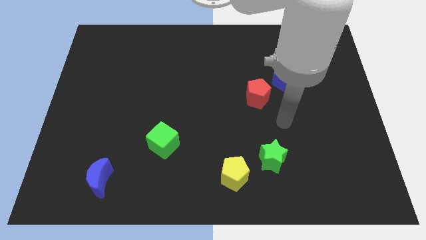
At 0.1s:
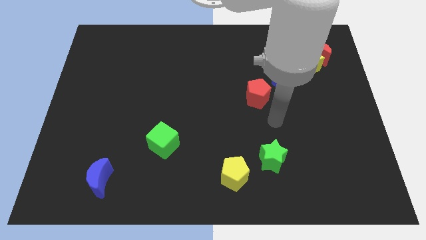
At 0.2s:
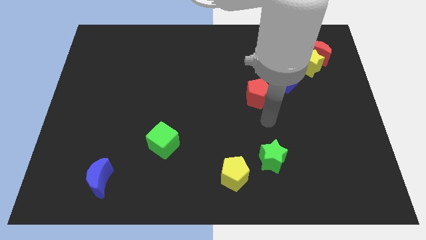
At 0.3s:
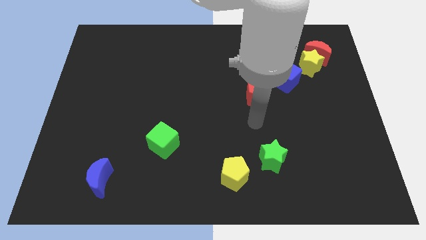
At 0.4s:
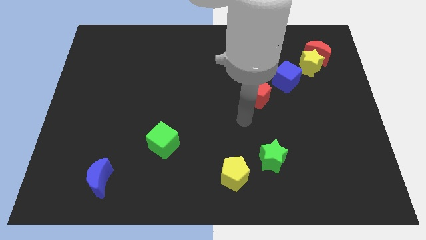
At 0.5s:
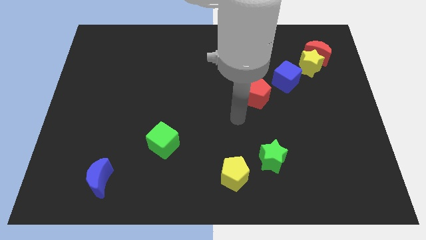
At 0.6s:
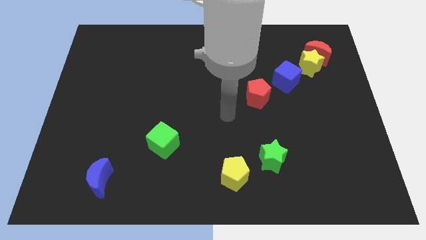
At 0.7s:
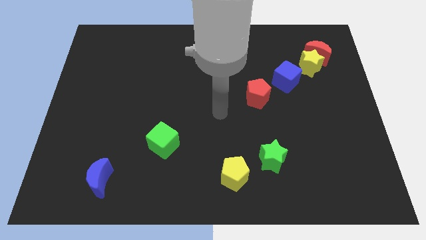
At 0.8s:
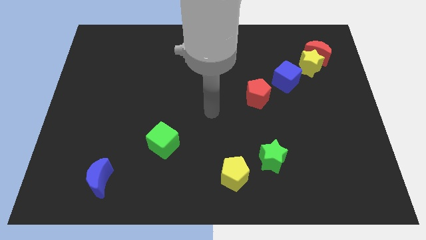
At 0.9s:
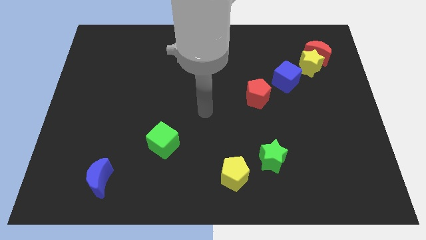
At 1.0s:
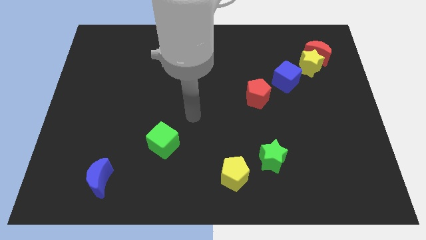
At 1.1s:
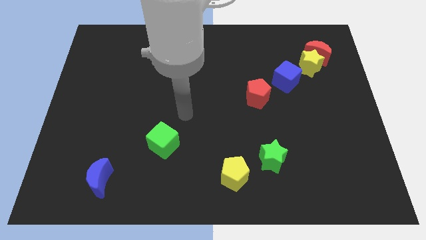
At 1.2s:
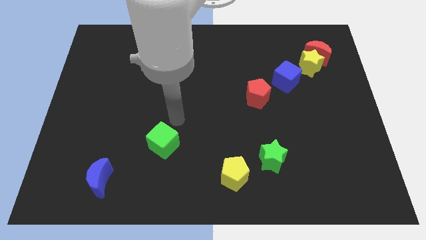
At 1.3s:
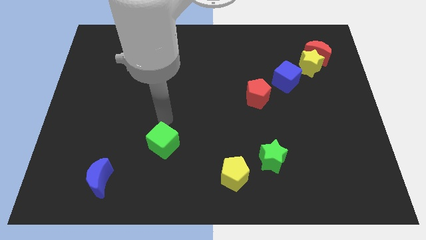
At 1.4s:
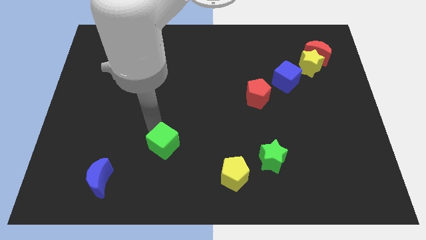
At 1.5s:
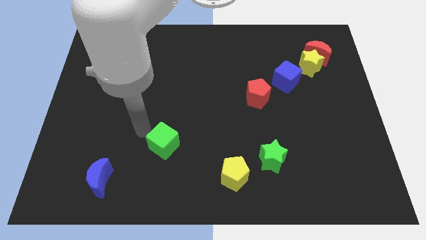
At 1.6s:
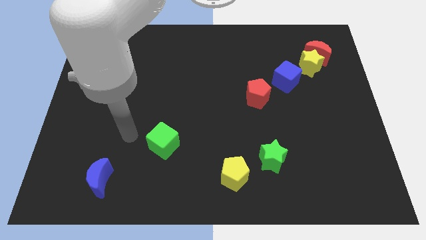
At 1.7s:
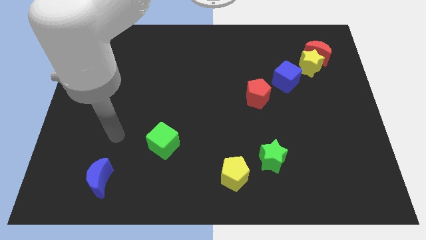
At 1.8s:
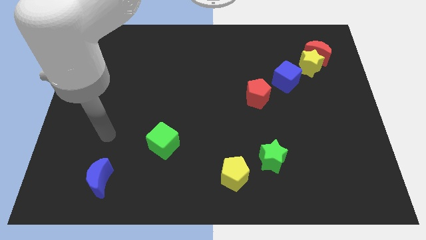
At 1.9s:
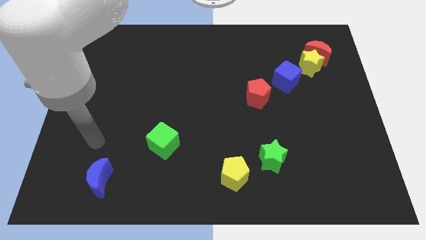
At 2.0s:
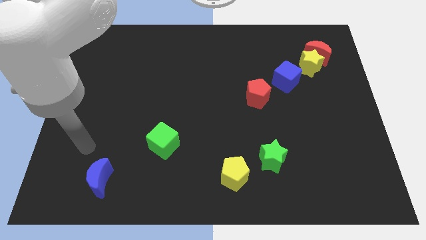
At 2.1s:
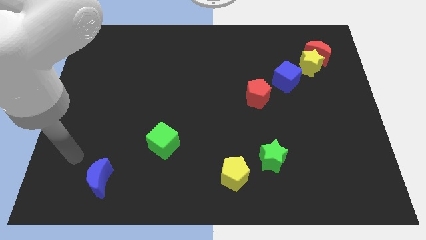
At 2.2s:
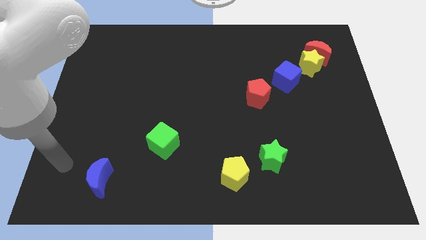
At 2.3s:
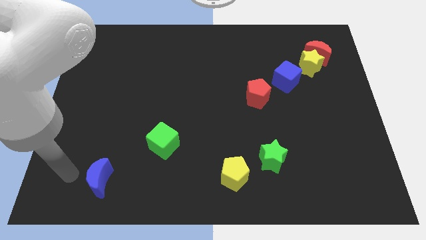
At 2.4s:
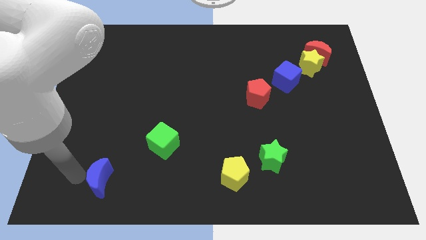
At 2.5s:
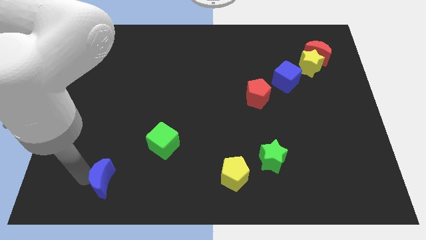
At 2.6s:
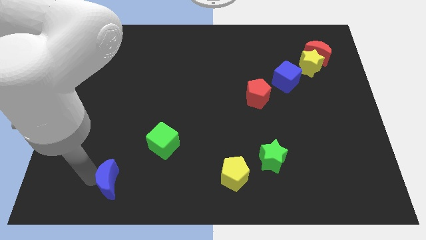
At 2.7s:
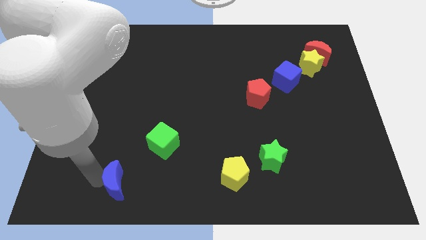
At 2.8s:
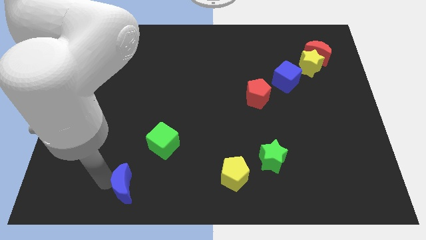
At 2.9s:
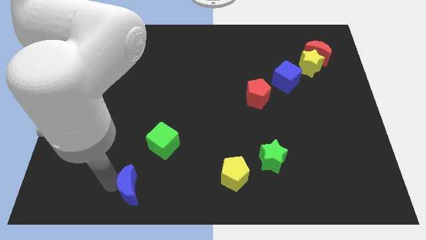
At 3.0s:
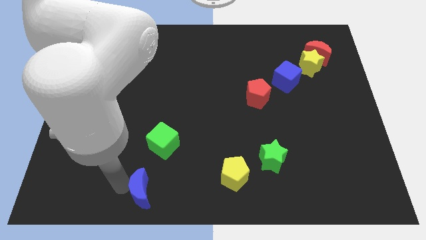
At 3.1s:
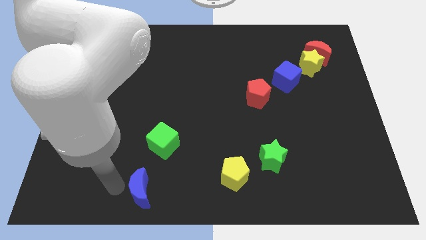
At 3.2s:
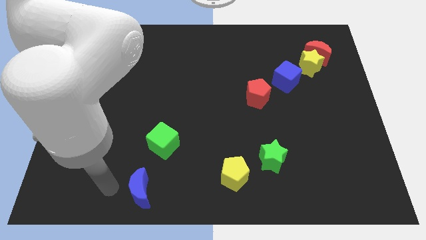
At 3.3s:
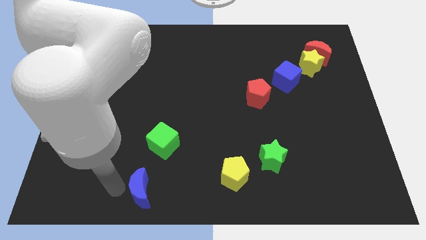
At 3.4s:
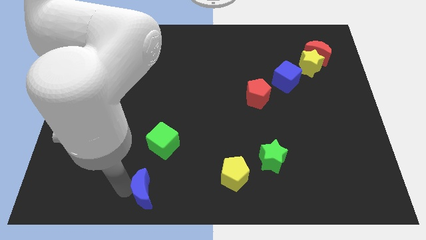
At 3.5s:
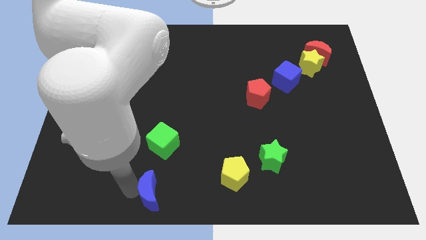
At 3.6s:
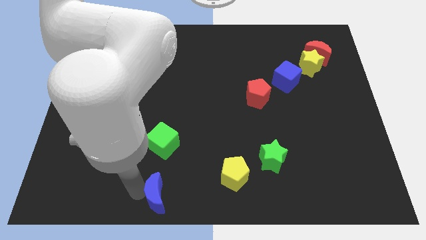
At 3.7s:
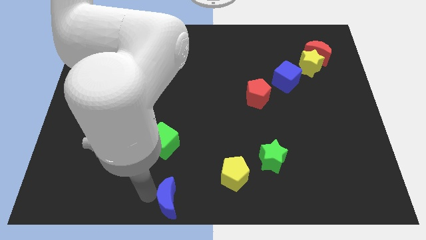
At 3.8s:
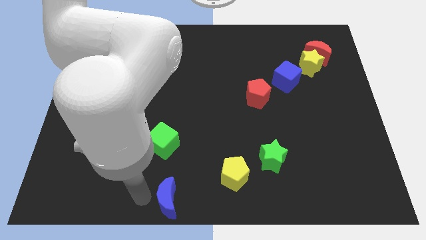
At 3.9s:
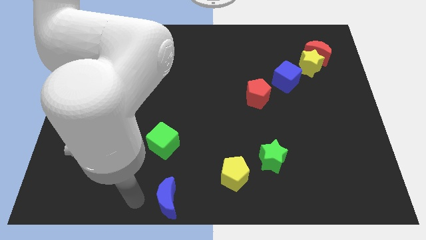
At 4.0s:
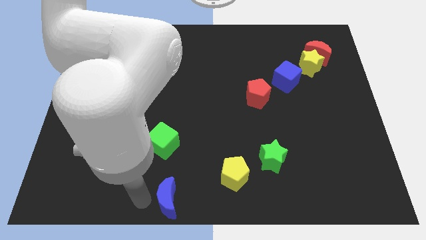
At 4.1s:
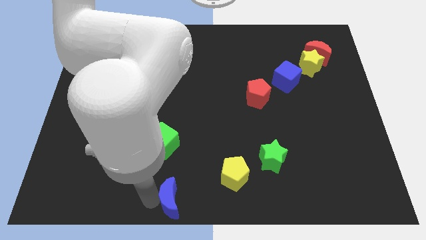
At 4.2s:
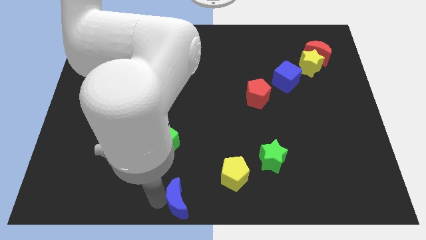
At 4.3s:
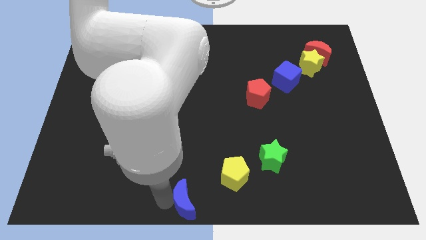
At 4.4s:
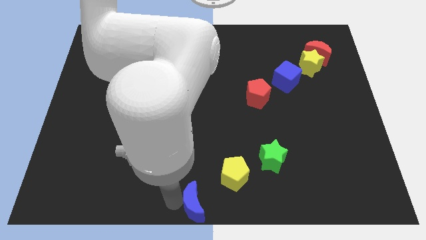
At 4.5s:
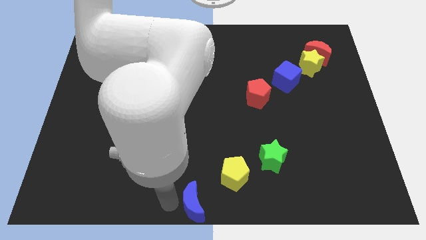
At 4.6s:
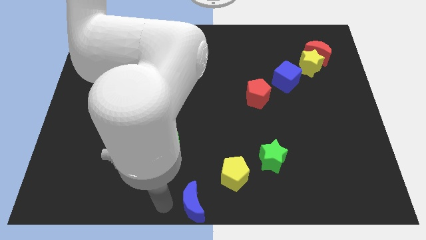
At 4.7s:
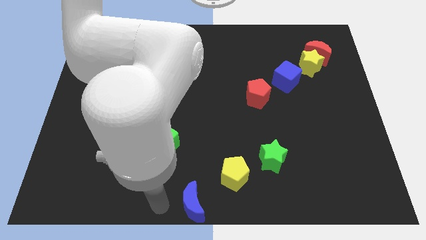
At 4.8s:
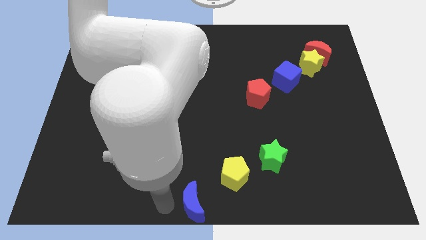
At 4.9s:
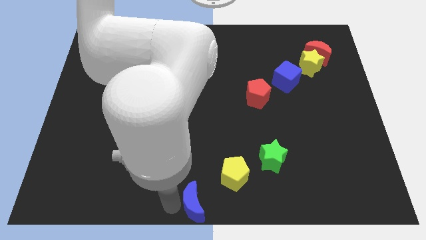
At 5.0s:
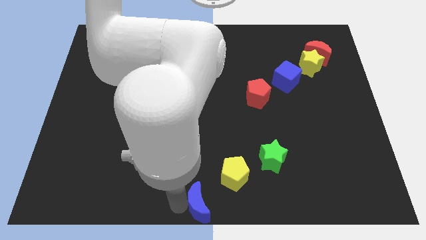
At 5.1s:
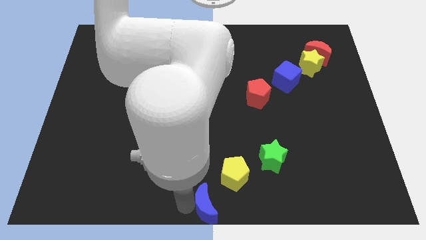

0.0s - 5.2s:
push the blue moon right

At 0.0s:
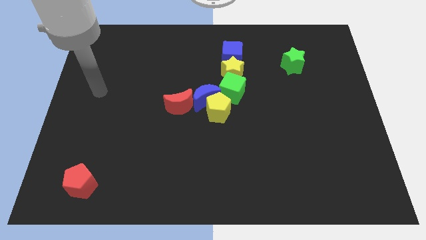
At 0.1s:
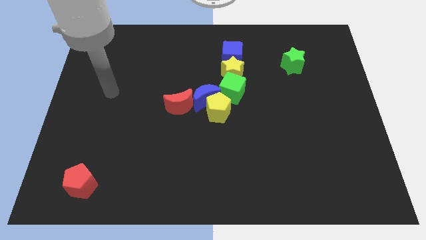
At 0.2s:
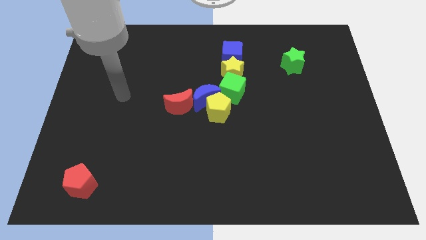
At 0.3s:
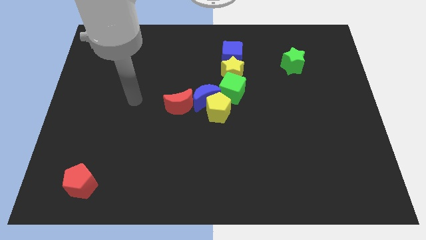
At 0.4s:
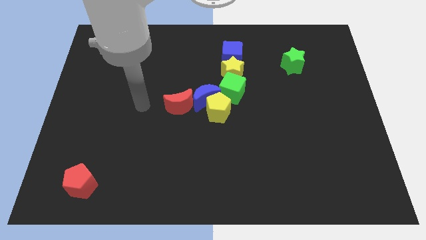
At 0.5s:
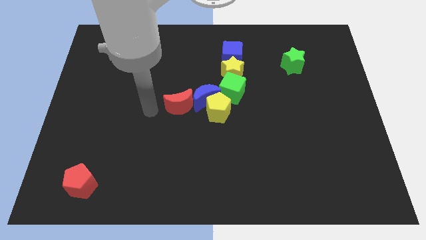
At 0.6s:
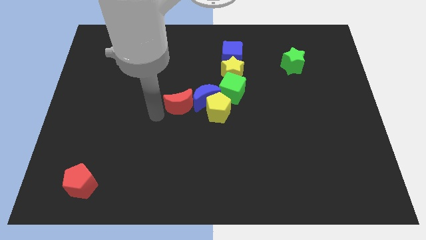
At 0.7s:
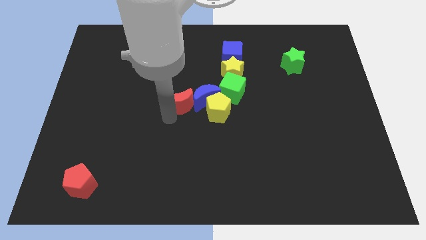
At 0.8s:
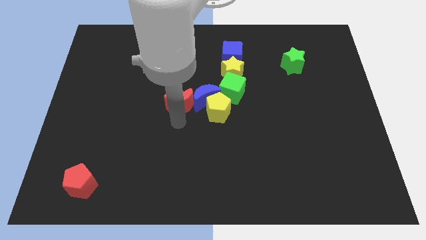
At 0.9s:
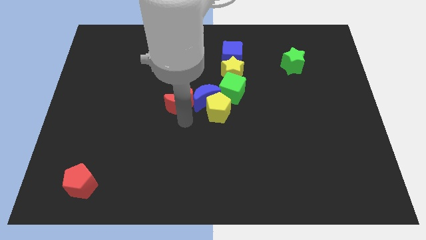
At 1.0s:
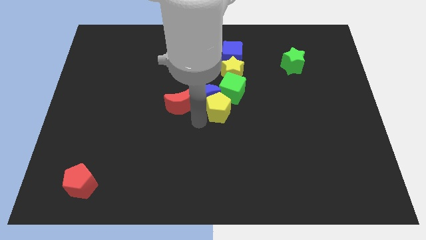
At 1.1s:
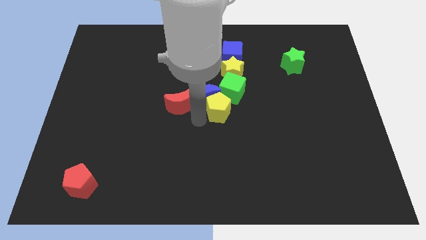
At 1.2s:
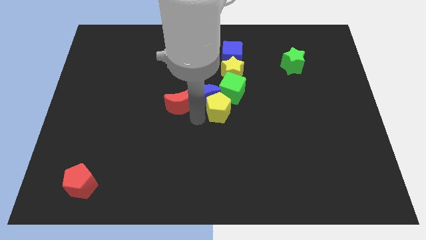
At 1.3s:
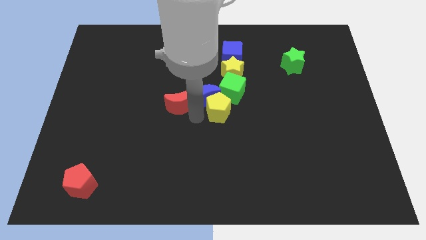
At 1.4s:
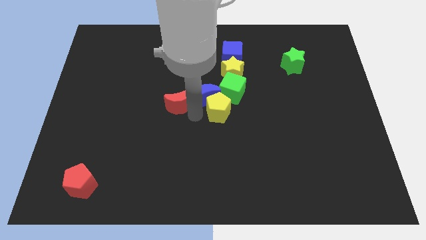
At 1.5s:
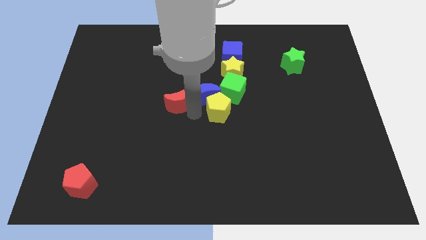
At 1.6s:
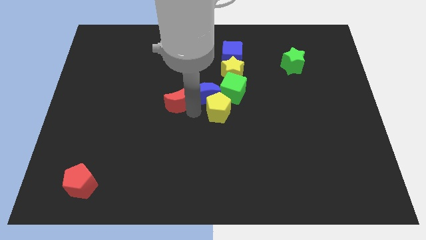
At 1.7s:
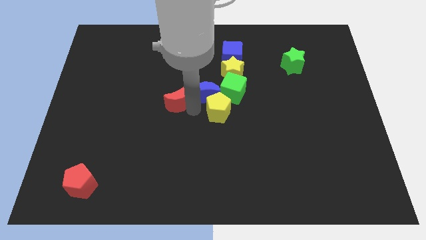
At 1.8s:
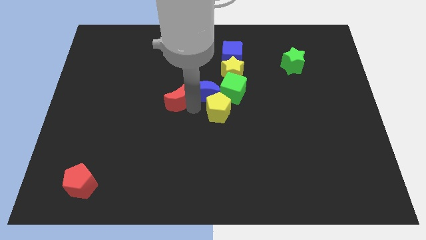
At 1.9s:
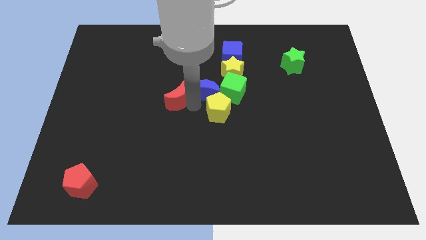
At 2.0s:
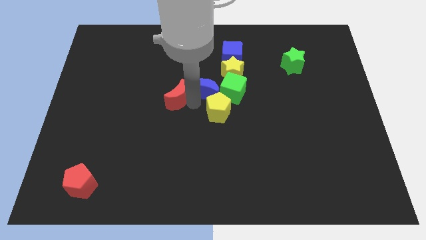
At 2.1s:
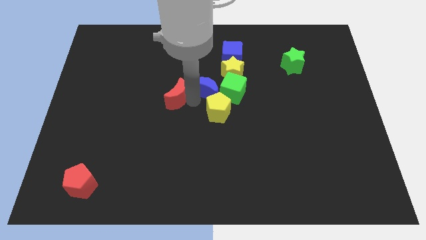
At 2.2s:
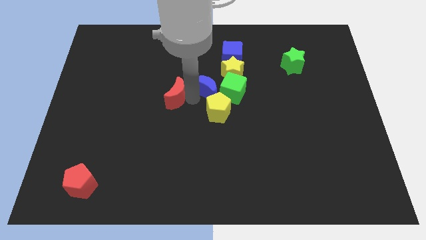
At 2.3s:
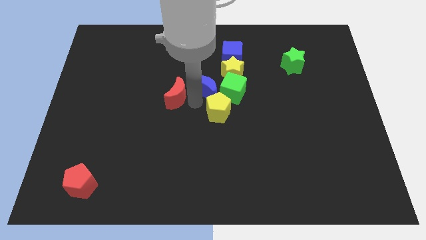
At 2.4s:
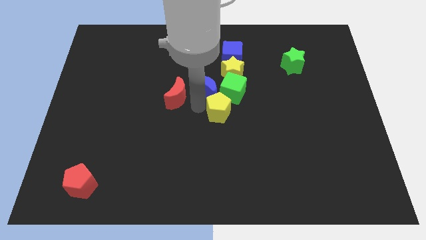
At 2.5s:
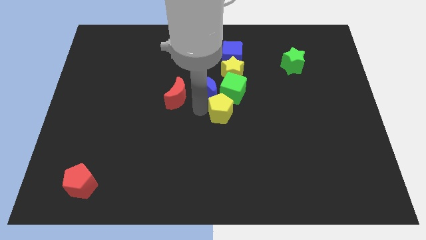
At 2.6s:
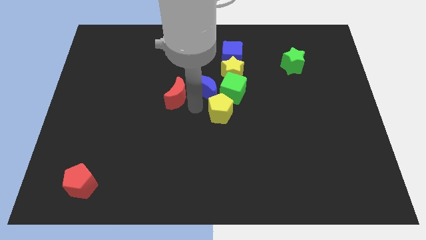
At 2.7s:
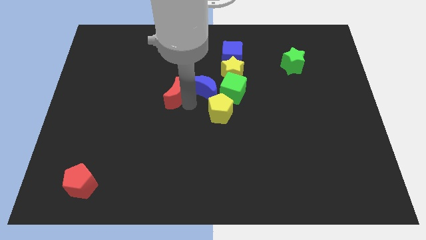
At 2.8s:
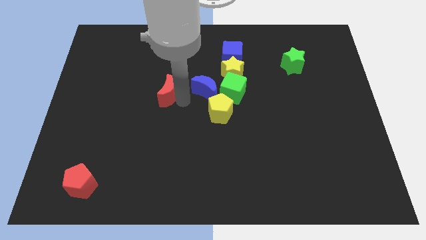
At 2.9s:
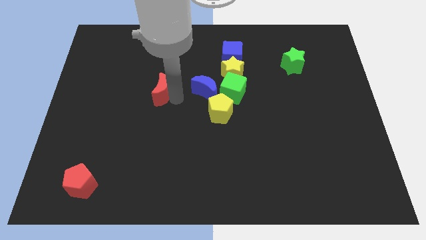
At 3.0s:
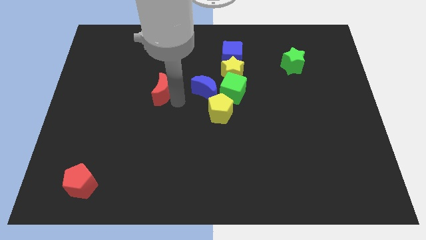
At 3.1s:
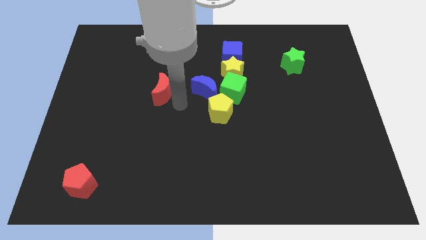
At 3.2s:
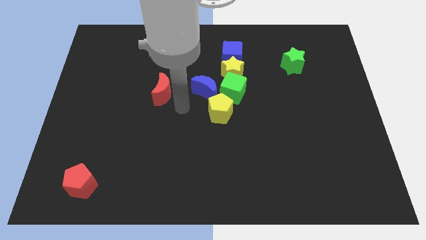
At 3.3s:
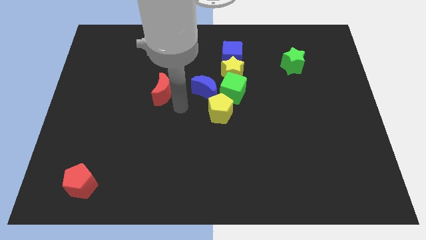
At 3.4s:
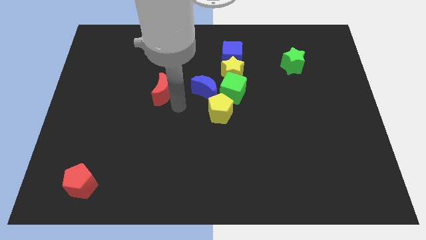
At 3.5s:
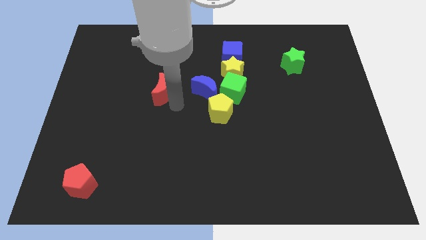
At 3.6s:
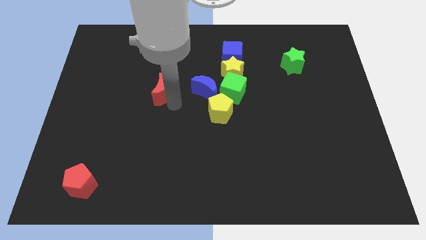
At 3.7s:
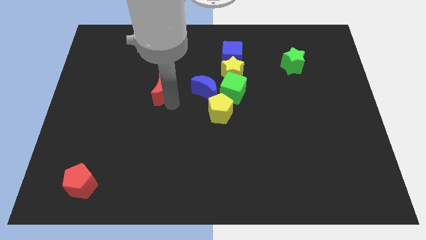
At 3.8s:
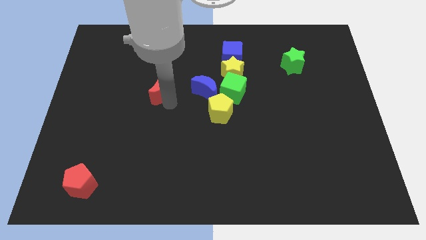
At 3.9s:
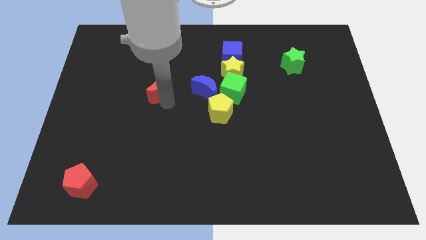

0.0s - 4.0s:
slide the red moon up and to the left diagonally somewhat
